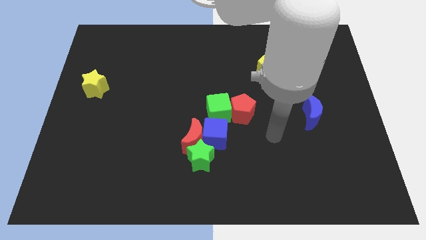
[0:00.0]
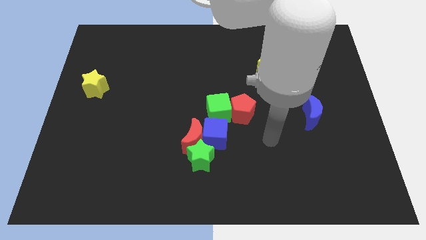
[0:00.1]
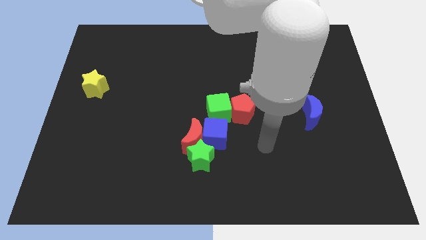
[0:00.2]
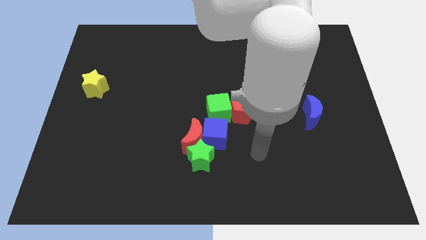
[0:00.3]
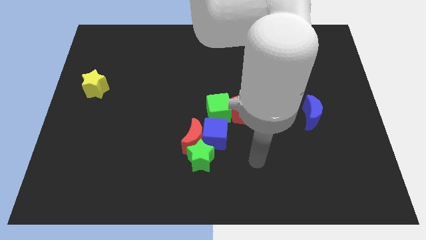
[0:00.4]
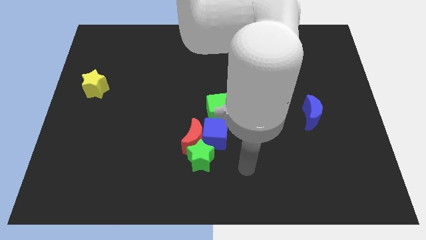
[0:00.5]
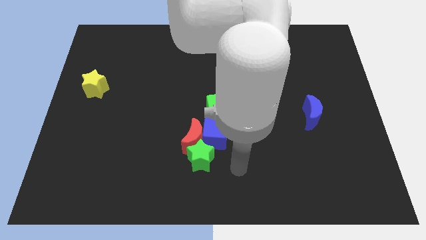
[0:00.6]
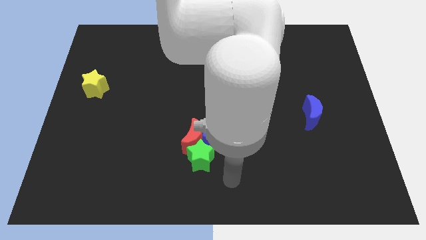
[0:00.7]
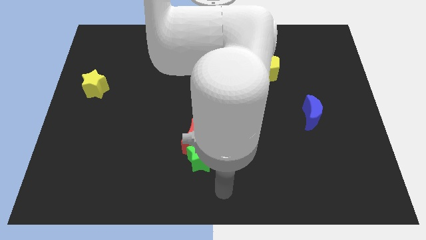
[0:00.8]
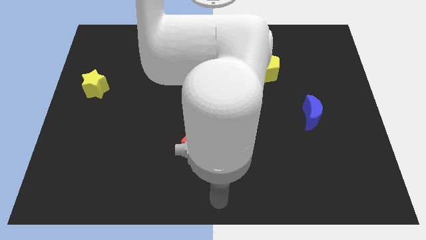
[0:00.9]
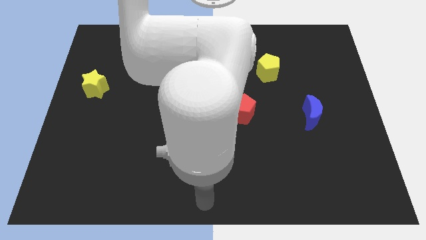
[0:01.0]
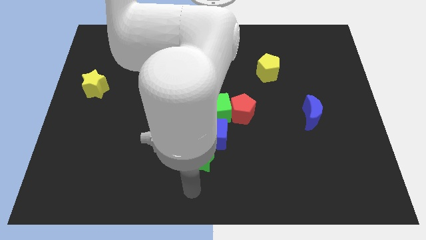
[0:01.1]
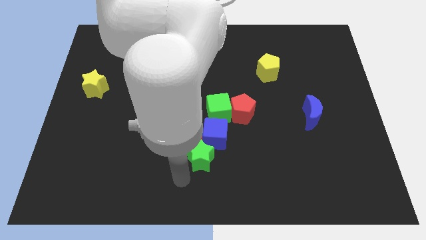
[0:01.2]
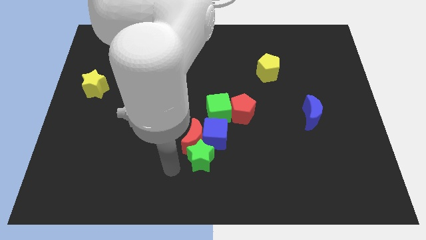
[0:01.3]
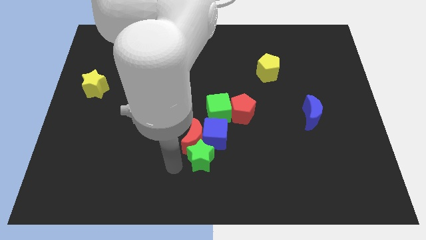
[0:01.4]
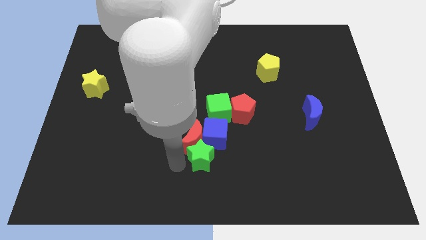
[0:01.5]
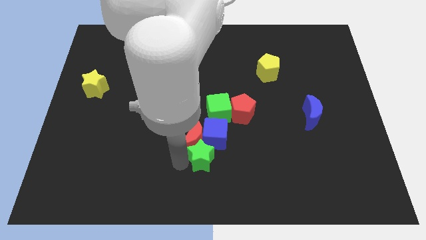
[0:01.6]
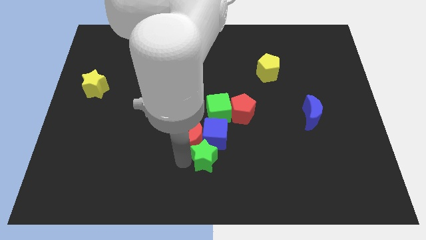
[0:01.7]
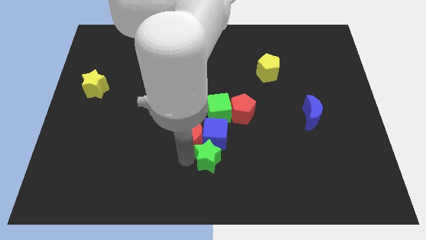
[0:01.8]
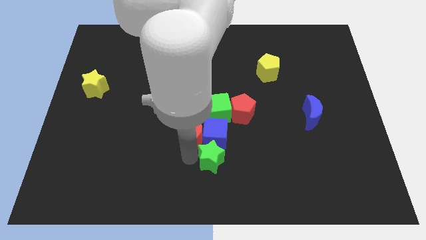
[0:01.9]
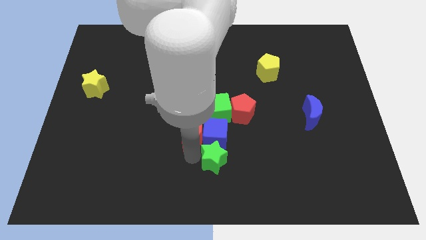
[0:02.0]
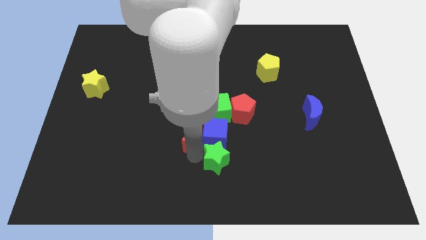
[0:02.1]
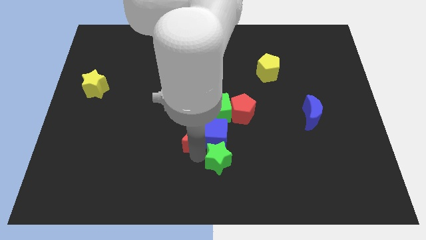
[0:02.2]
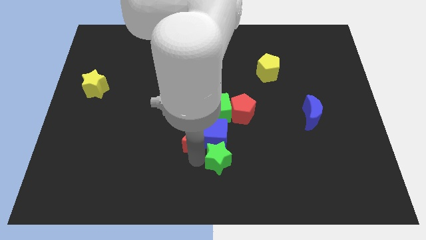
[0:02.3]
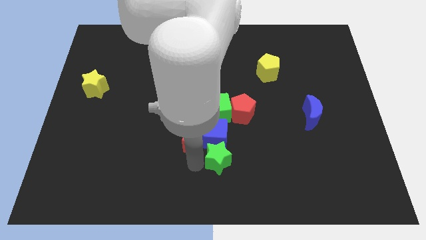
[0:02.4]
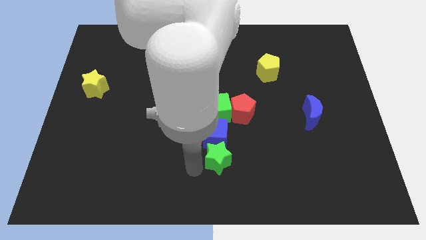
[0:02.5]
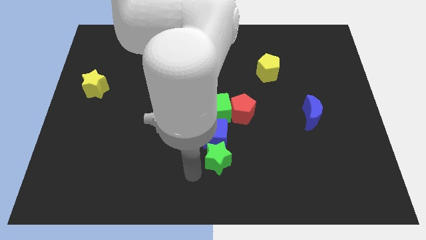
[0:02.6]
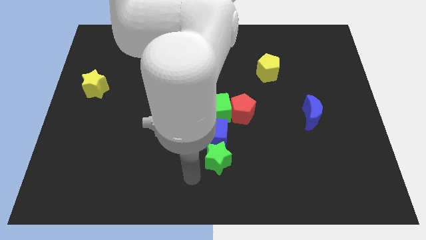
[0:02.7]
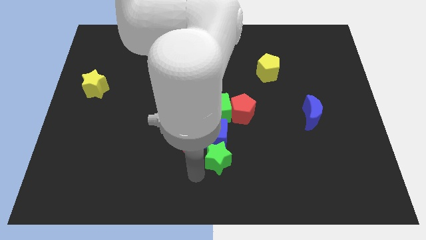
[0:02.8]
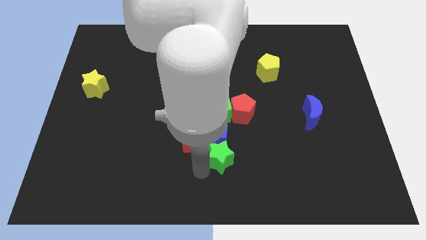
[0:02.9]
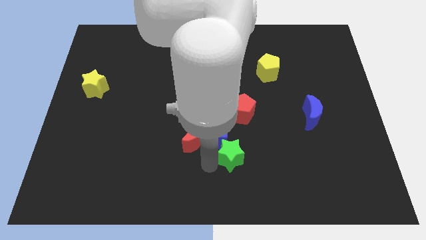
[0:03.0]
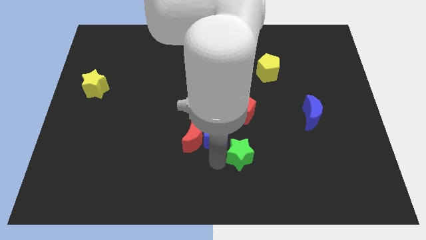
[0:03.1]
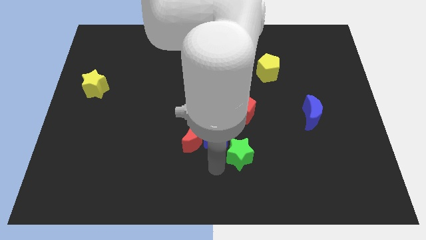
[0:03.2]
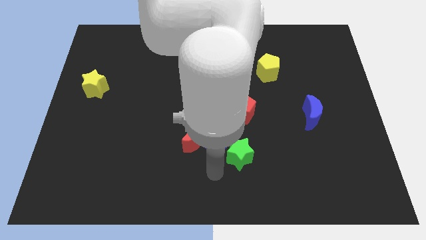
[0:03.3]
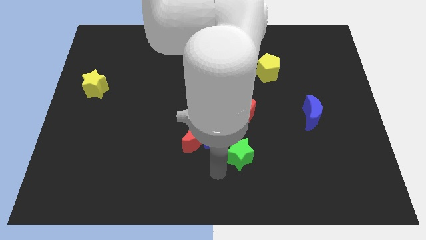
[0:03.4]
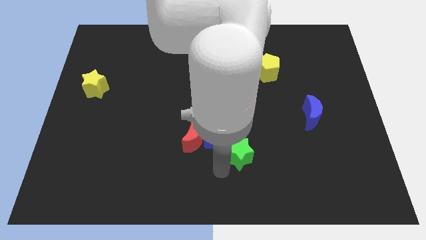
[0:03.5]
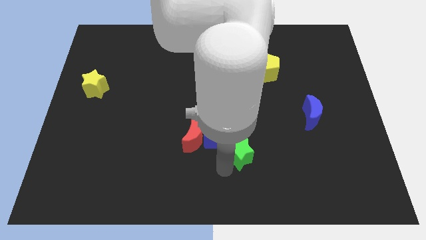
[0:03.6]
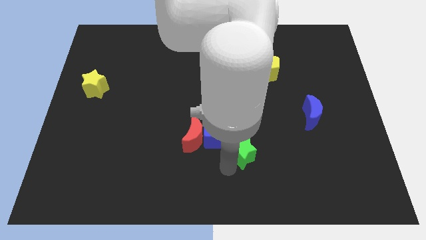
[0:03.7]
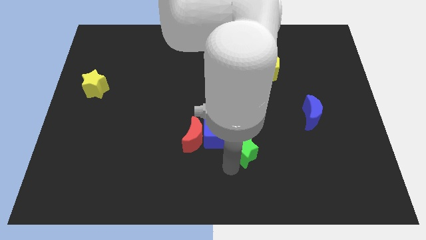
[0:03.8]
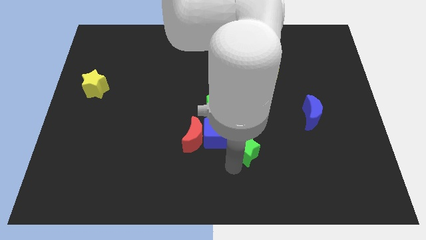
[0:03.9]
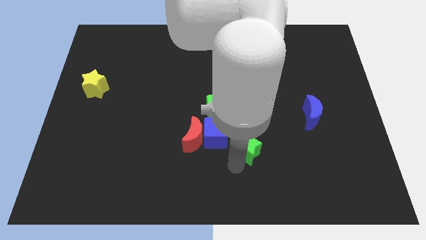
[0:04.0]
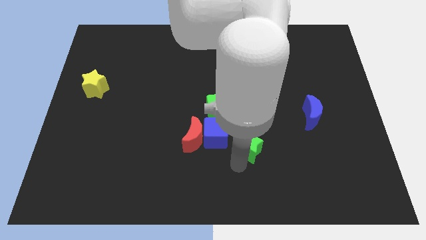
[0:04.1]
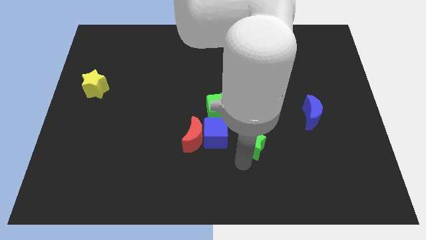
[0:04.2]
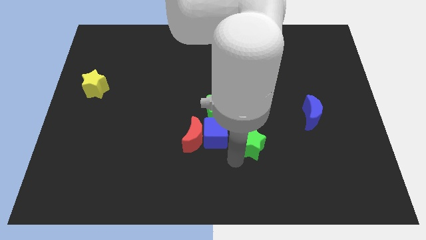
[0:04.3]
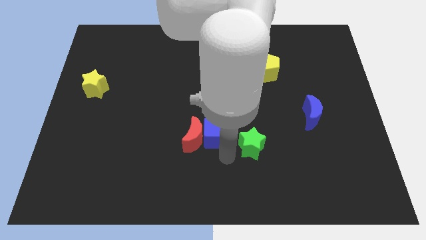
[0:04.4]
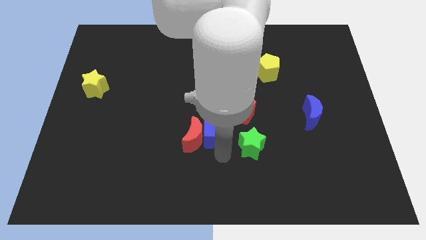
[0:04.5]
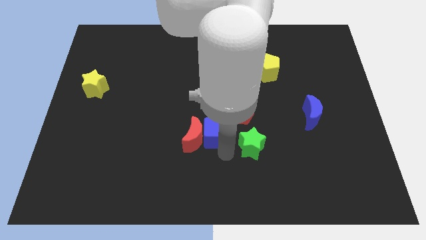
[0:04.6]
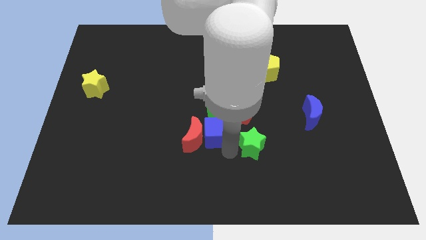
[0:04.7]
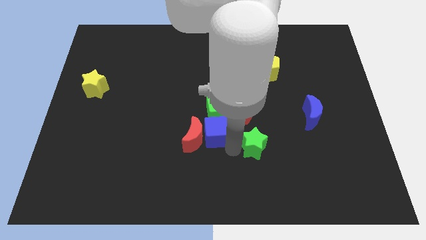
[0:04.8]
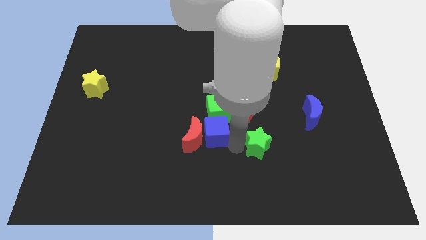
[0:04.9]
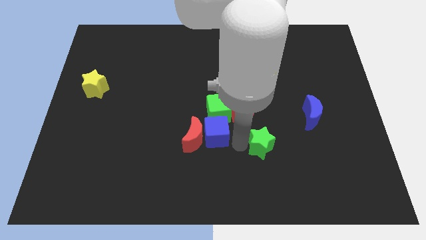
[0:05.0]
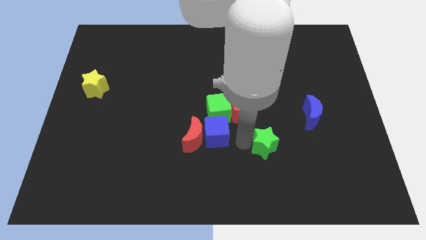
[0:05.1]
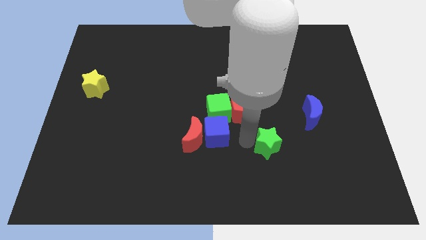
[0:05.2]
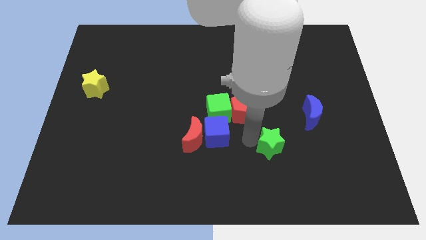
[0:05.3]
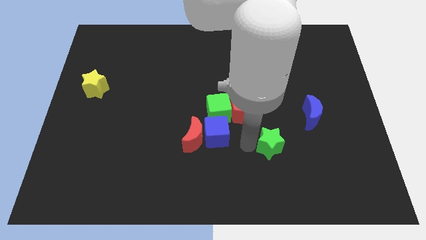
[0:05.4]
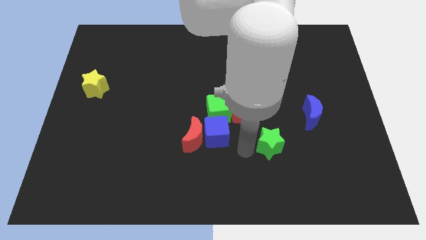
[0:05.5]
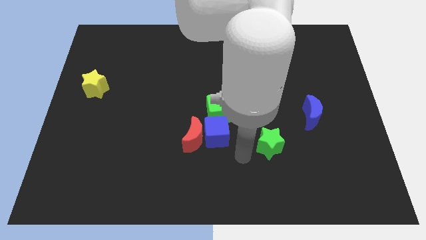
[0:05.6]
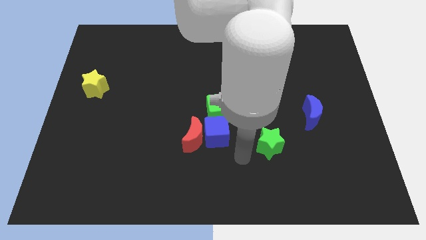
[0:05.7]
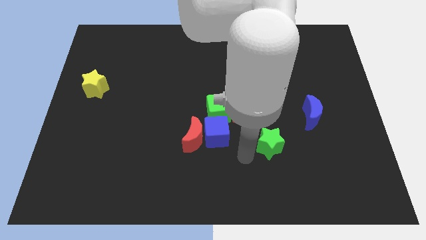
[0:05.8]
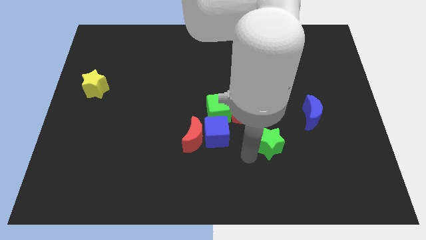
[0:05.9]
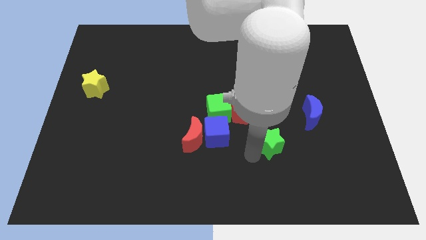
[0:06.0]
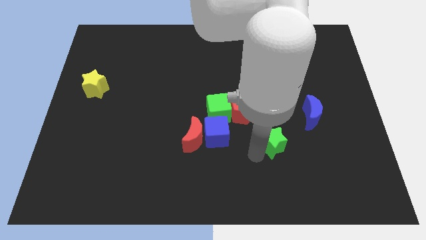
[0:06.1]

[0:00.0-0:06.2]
slide the green star diagonally down and to the left of the blue moon
